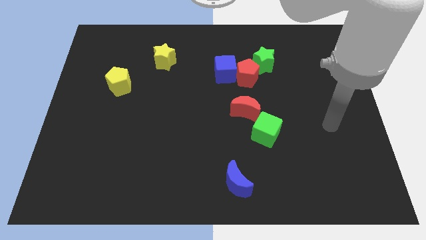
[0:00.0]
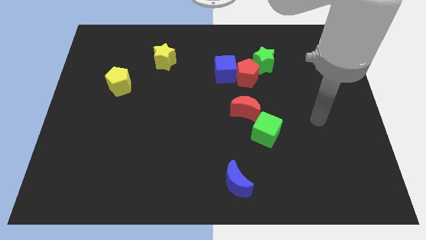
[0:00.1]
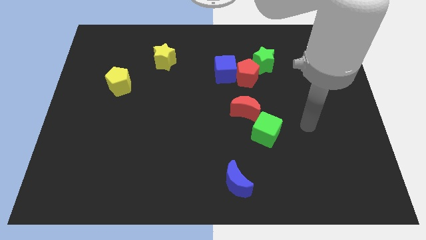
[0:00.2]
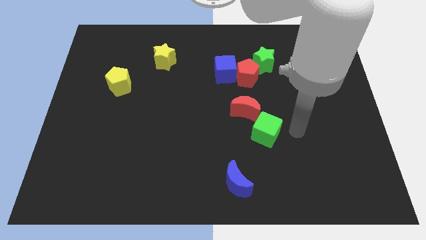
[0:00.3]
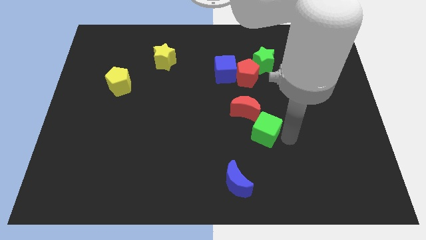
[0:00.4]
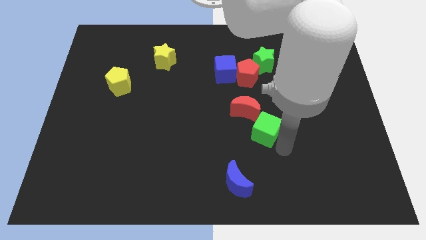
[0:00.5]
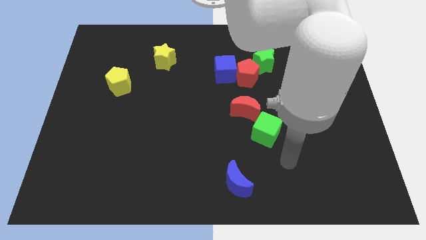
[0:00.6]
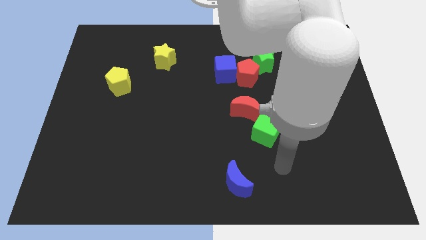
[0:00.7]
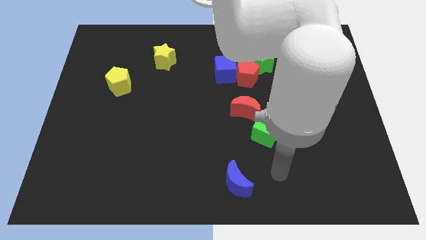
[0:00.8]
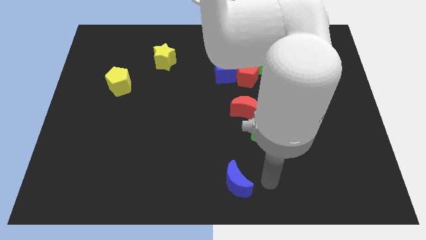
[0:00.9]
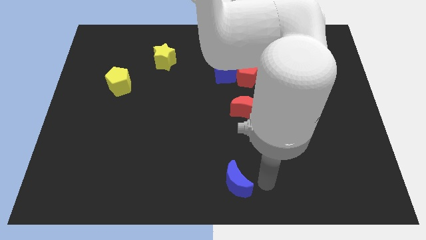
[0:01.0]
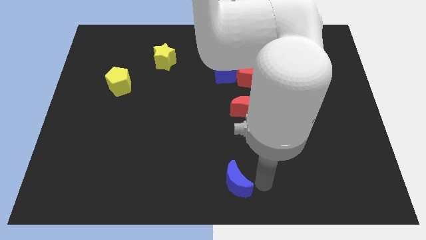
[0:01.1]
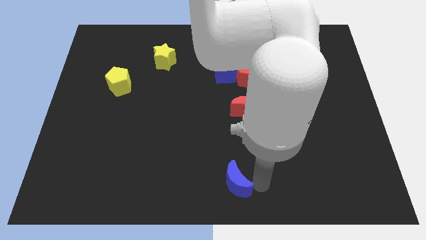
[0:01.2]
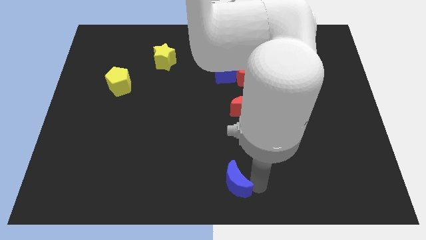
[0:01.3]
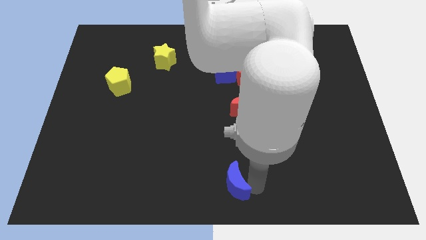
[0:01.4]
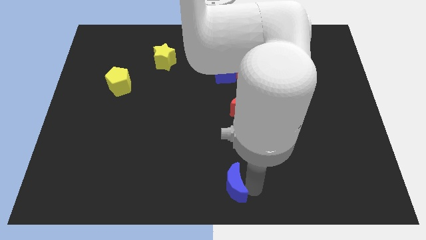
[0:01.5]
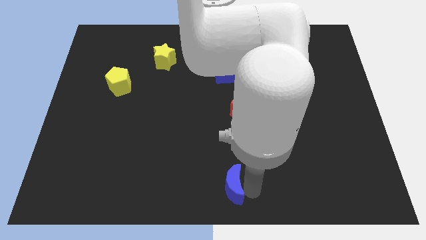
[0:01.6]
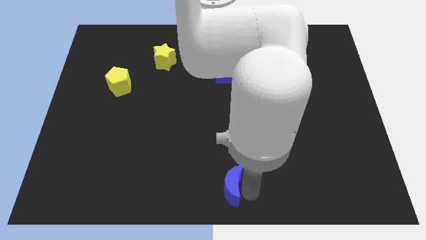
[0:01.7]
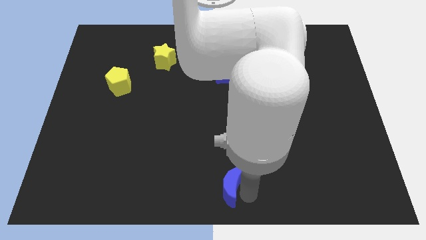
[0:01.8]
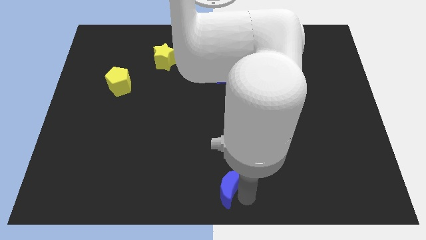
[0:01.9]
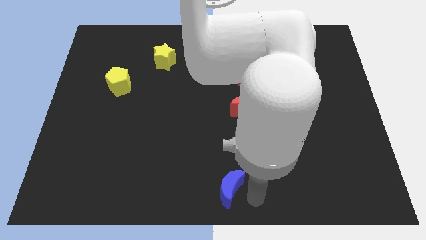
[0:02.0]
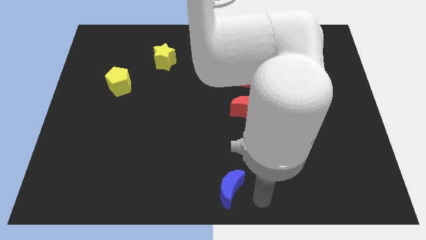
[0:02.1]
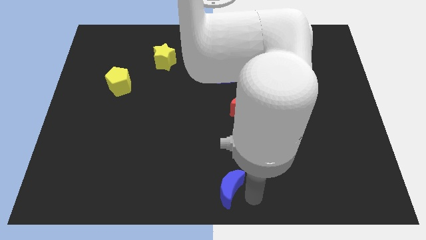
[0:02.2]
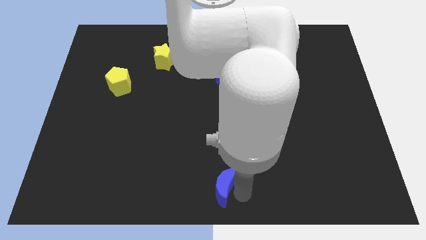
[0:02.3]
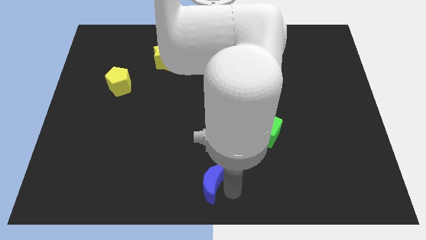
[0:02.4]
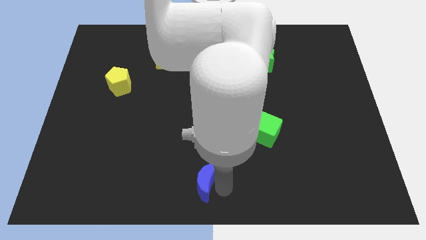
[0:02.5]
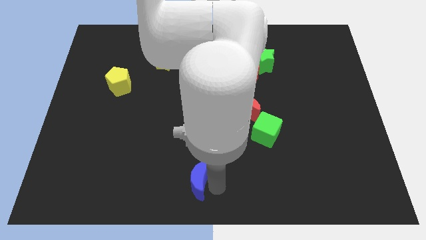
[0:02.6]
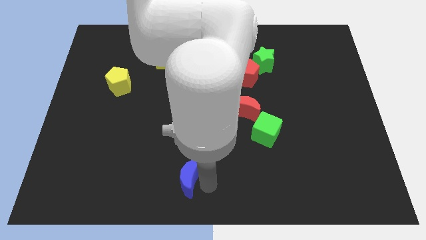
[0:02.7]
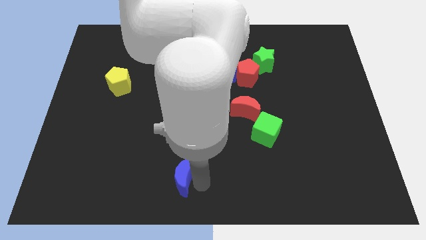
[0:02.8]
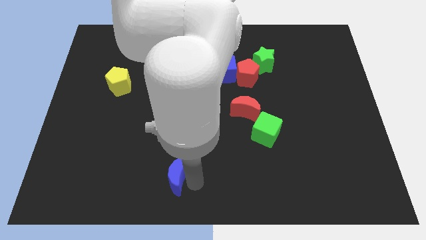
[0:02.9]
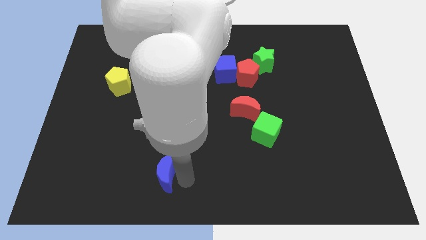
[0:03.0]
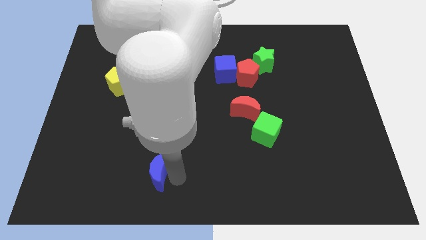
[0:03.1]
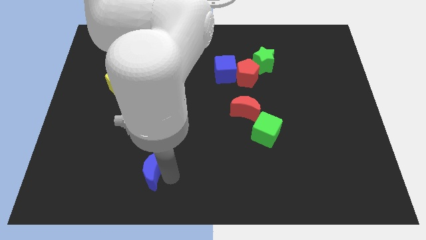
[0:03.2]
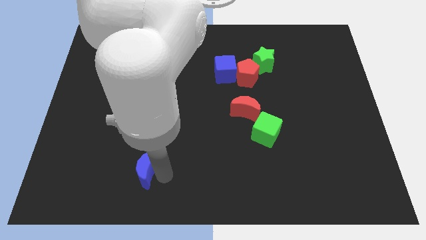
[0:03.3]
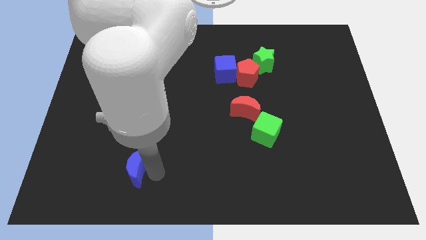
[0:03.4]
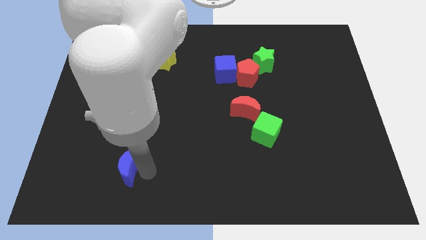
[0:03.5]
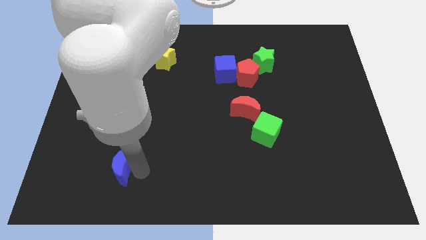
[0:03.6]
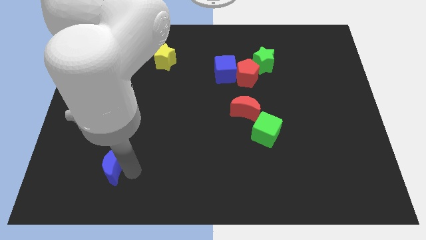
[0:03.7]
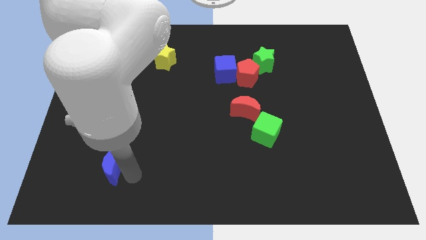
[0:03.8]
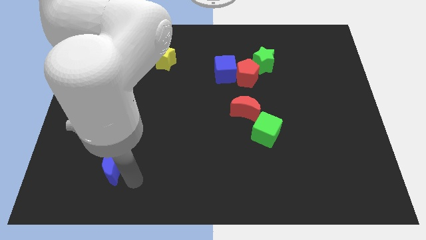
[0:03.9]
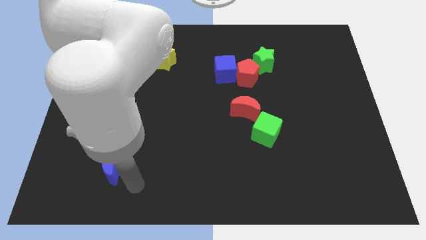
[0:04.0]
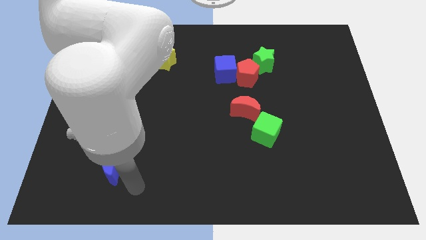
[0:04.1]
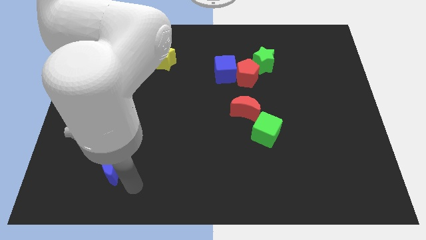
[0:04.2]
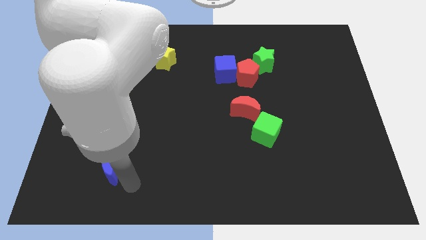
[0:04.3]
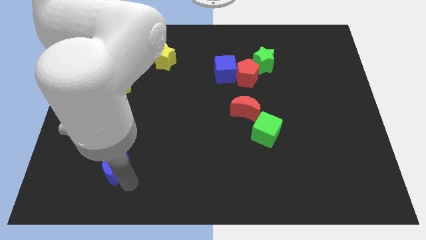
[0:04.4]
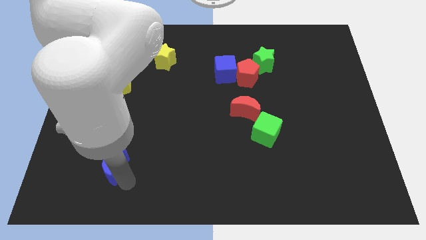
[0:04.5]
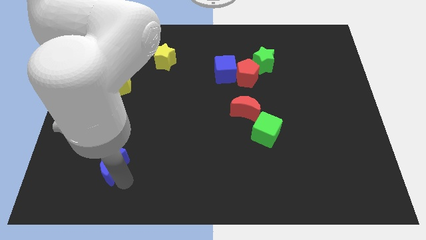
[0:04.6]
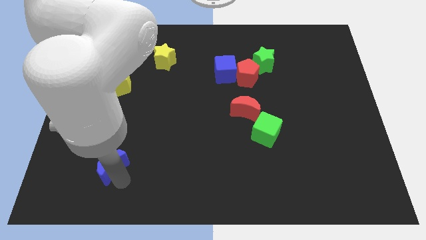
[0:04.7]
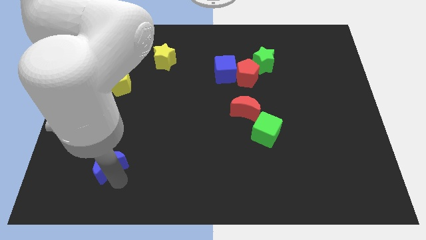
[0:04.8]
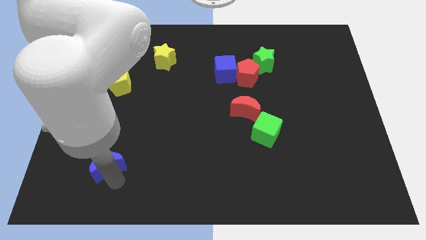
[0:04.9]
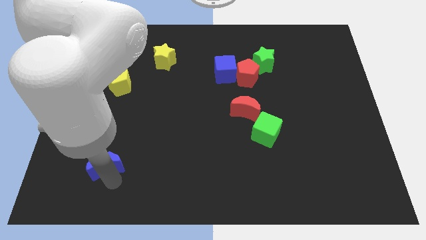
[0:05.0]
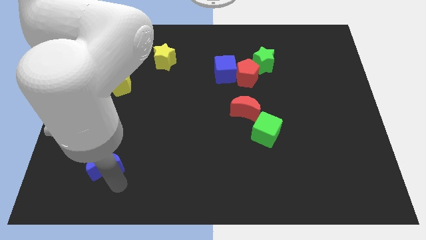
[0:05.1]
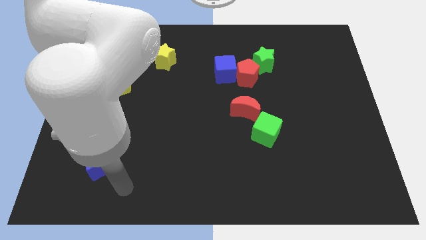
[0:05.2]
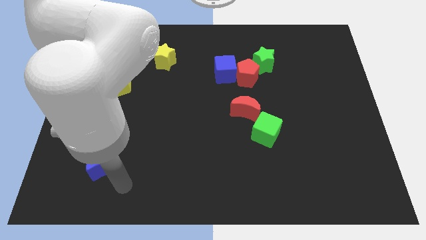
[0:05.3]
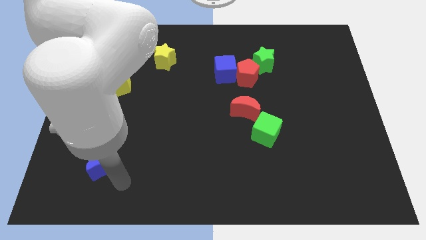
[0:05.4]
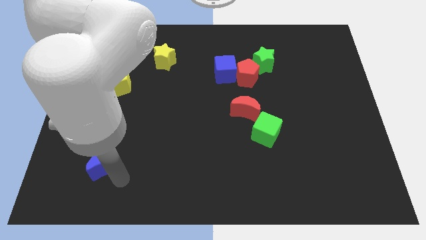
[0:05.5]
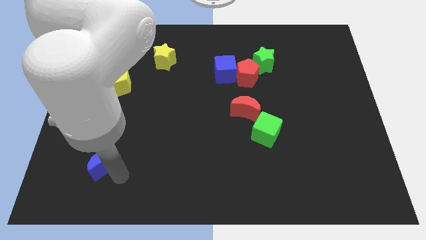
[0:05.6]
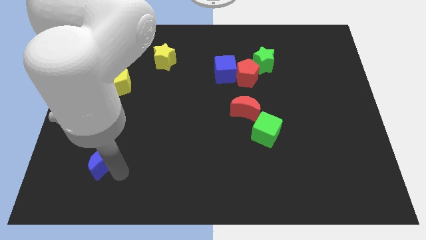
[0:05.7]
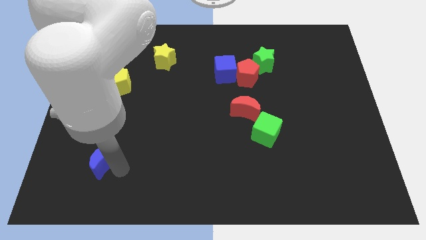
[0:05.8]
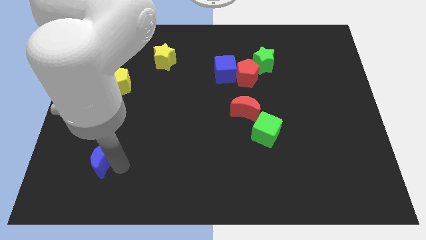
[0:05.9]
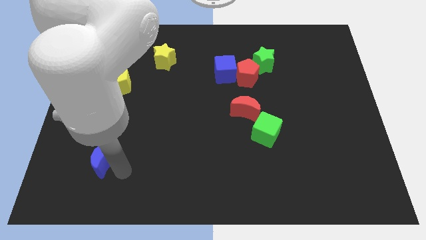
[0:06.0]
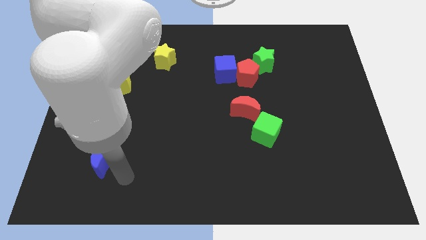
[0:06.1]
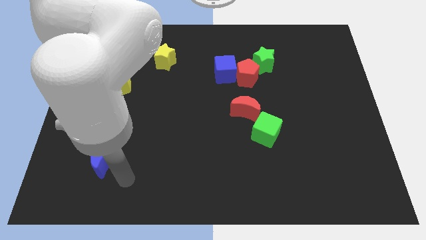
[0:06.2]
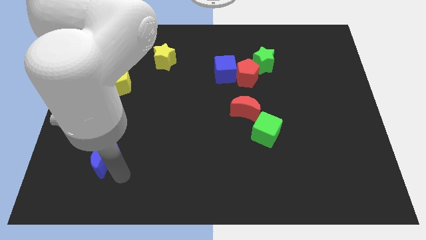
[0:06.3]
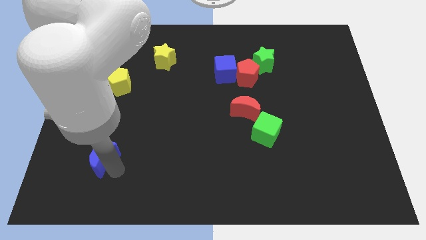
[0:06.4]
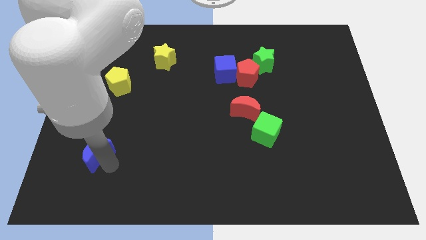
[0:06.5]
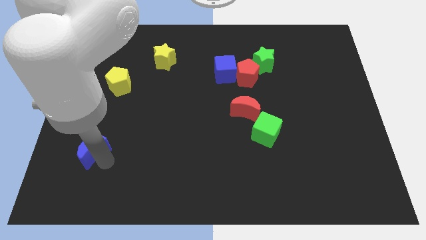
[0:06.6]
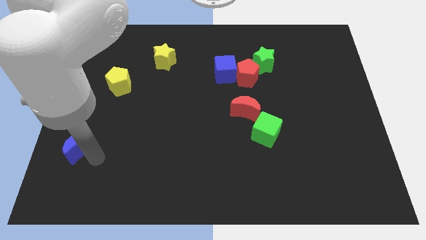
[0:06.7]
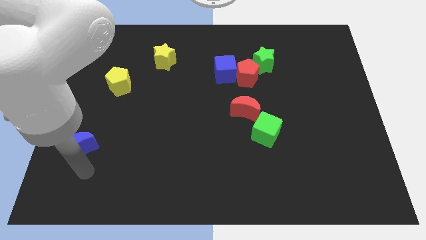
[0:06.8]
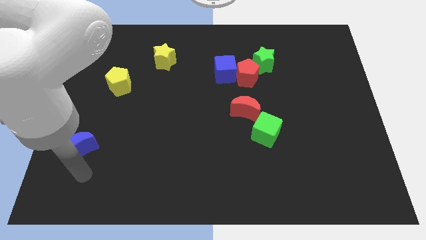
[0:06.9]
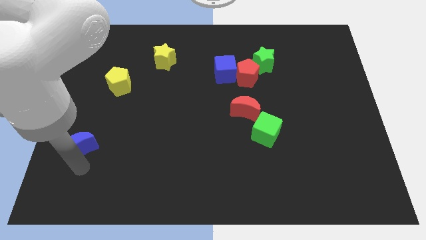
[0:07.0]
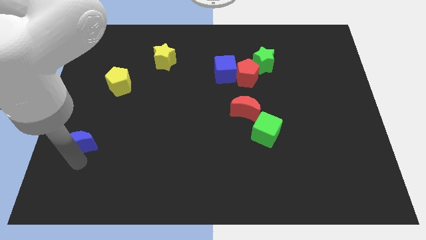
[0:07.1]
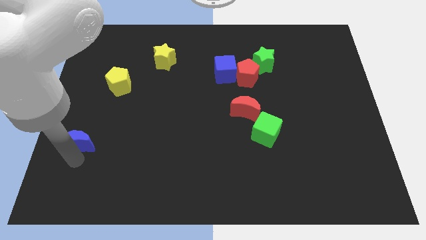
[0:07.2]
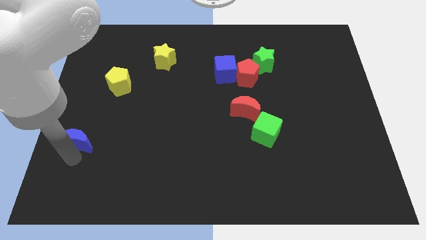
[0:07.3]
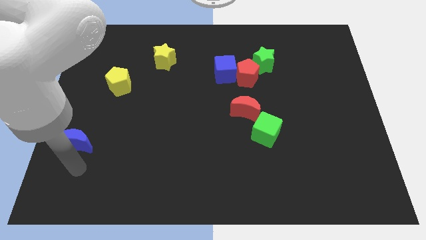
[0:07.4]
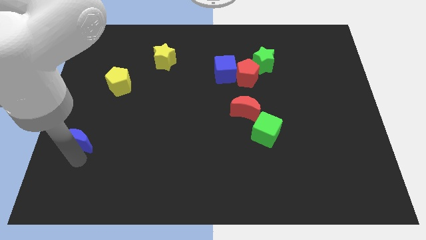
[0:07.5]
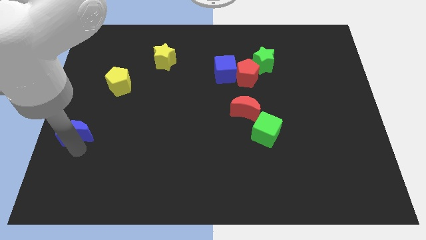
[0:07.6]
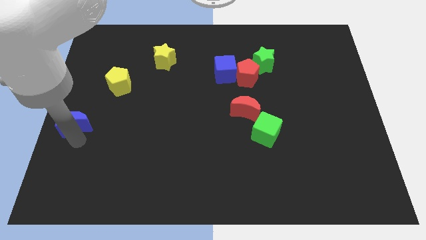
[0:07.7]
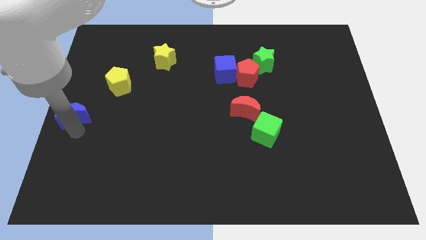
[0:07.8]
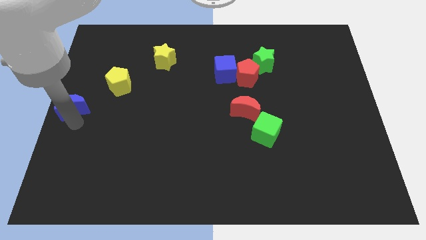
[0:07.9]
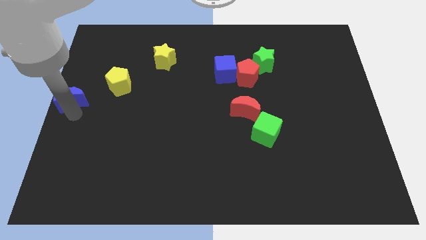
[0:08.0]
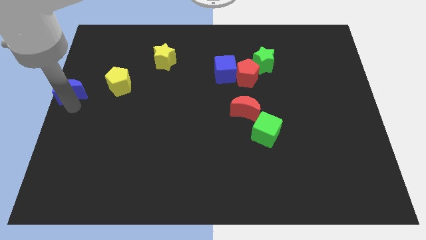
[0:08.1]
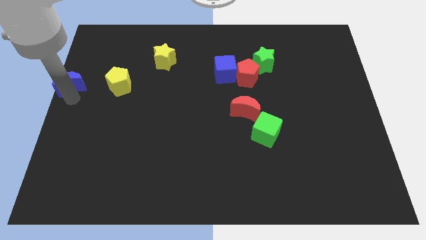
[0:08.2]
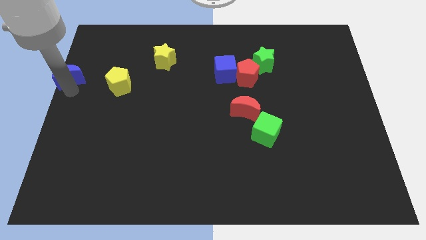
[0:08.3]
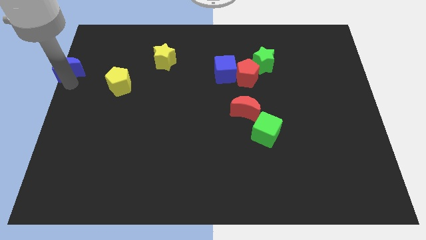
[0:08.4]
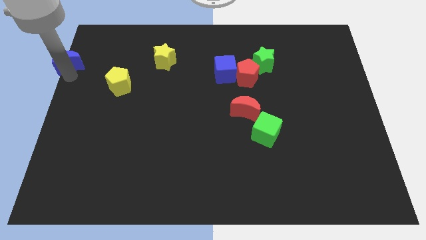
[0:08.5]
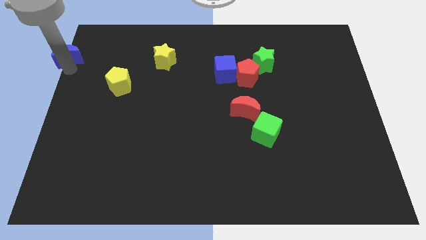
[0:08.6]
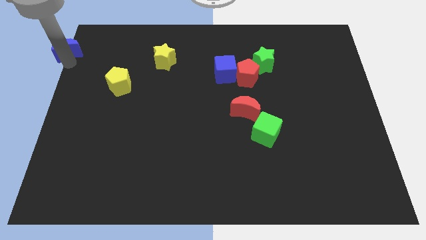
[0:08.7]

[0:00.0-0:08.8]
push the blue moon to the upper left corner
